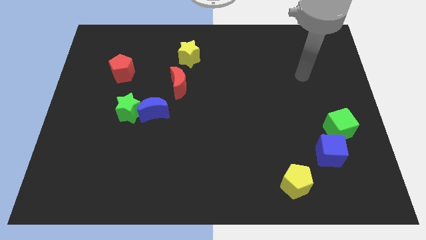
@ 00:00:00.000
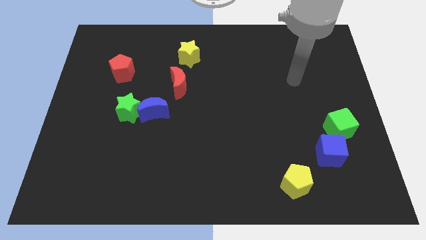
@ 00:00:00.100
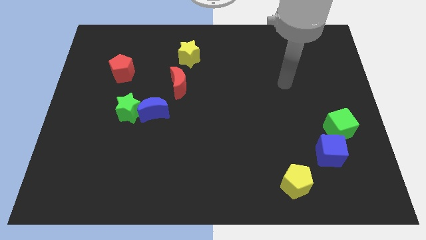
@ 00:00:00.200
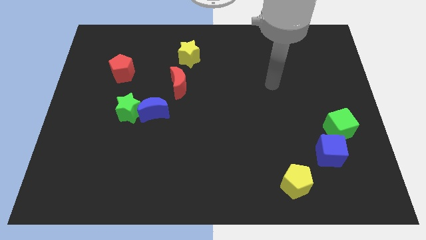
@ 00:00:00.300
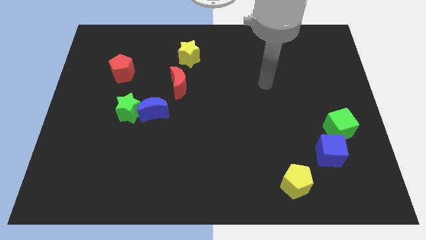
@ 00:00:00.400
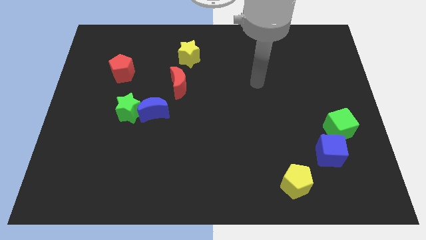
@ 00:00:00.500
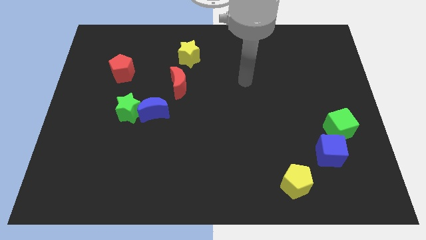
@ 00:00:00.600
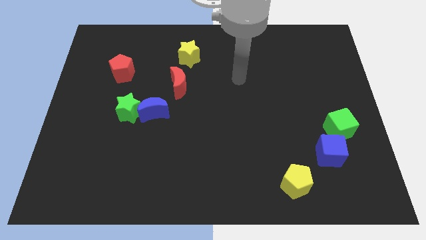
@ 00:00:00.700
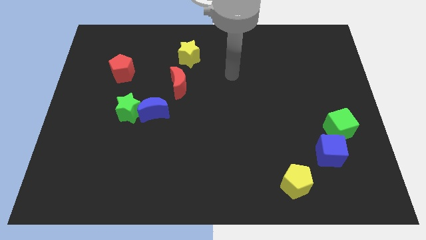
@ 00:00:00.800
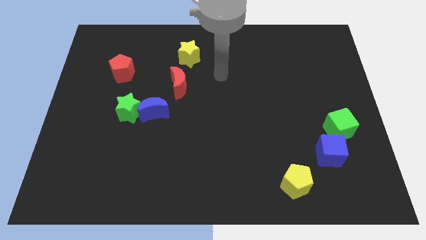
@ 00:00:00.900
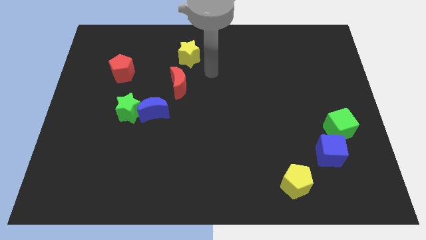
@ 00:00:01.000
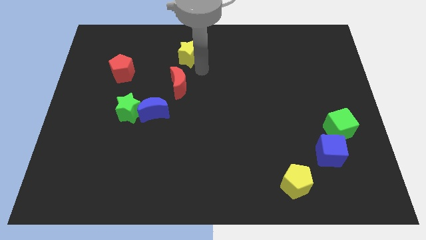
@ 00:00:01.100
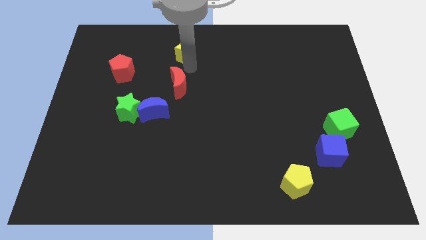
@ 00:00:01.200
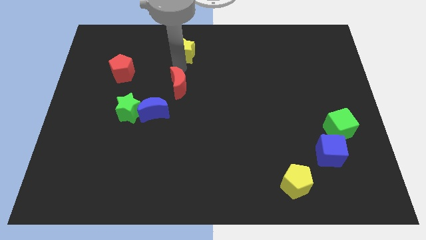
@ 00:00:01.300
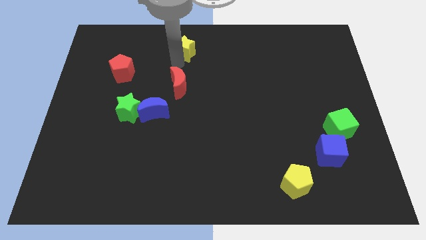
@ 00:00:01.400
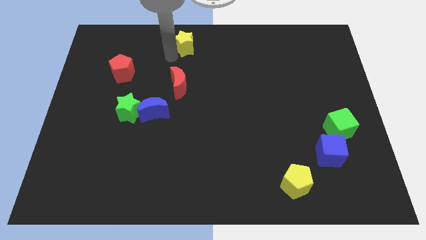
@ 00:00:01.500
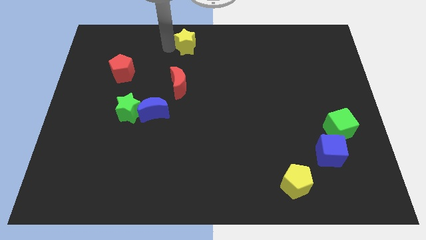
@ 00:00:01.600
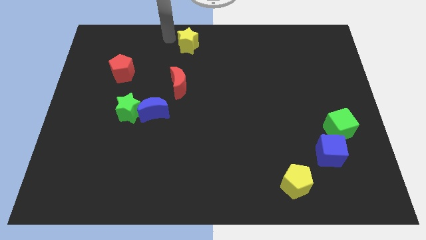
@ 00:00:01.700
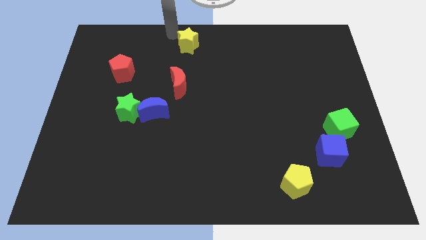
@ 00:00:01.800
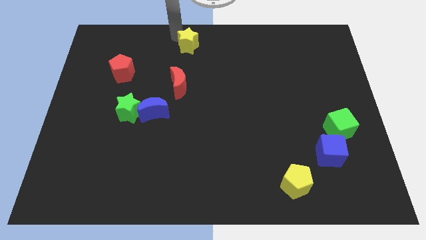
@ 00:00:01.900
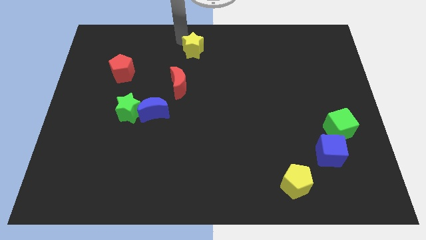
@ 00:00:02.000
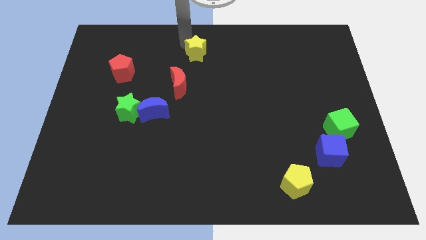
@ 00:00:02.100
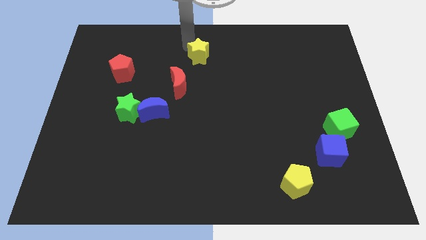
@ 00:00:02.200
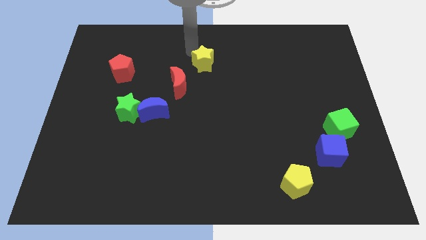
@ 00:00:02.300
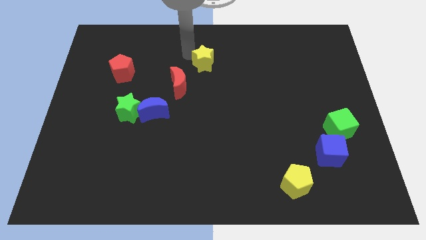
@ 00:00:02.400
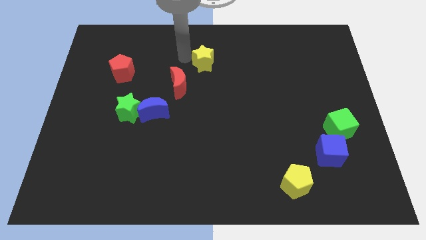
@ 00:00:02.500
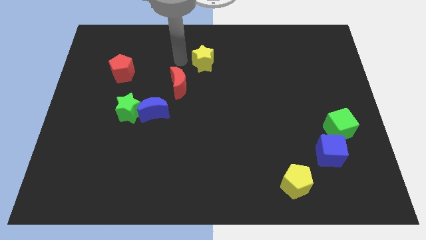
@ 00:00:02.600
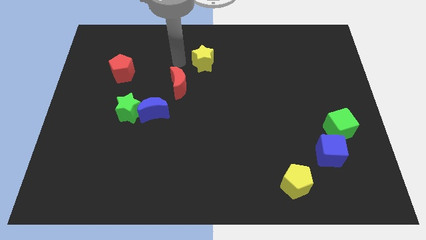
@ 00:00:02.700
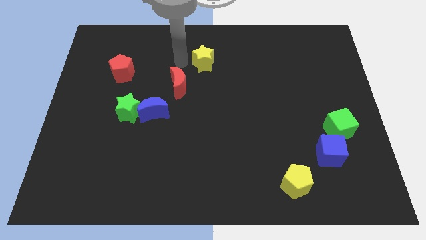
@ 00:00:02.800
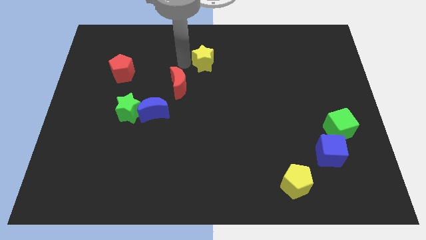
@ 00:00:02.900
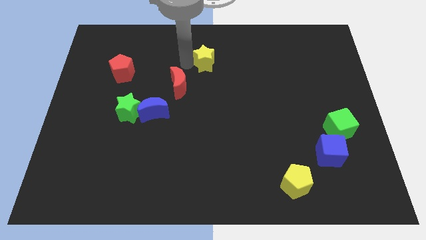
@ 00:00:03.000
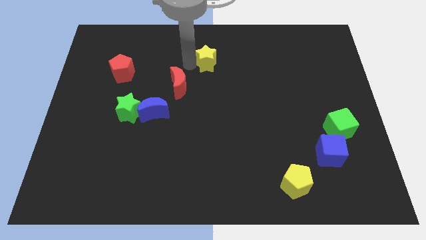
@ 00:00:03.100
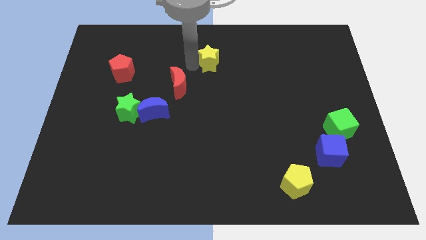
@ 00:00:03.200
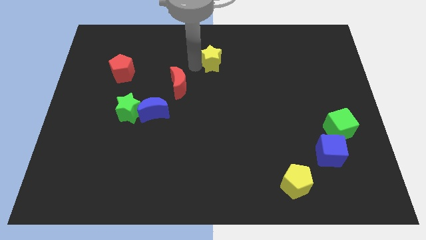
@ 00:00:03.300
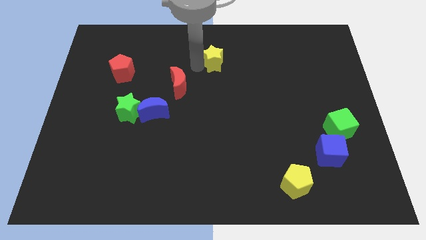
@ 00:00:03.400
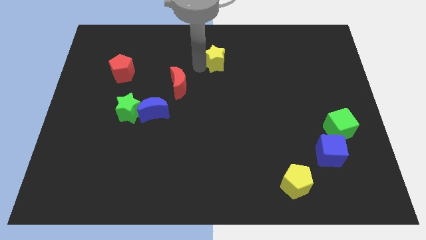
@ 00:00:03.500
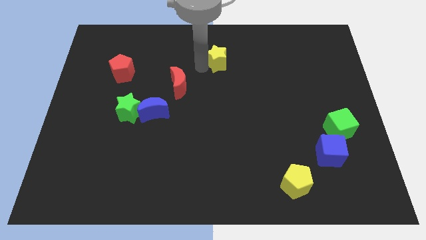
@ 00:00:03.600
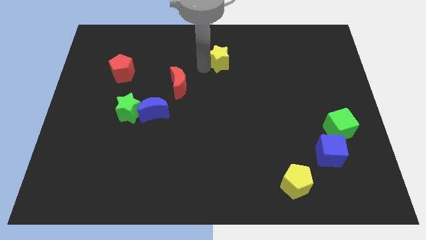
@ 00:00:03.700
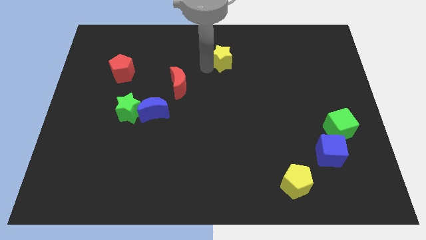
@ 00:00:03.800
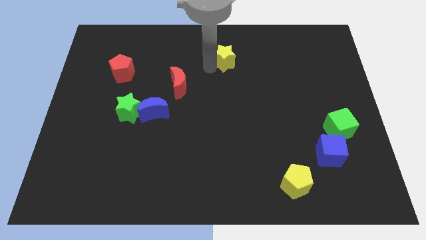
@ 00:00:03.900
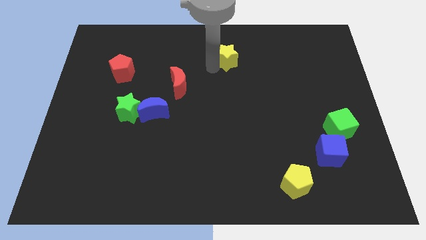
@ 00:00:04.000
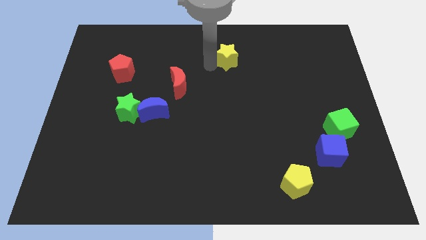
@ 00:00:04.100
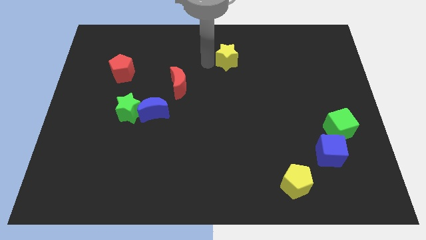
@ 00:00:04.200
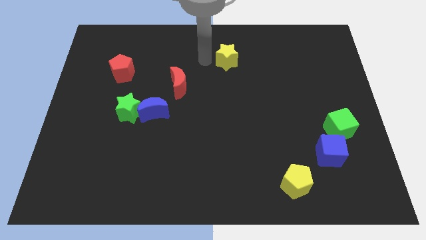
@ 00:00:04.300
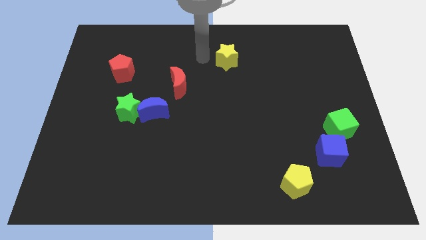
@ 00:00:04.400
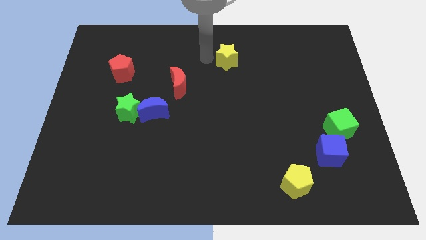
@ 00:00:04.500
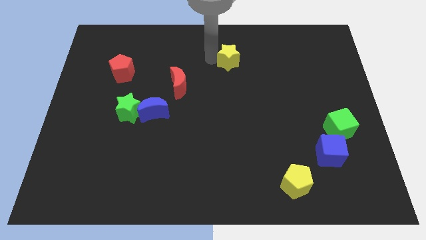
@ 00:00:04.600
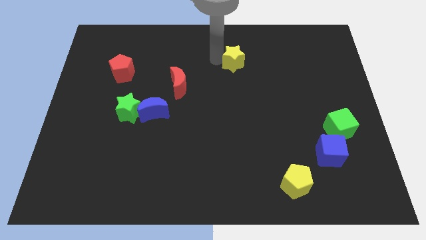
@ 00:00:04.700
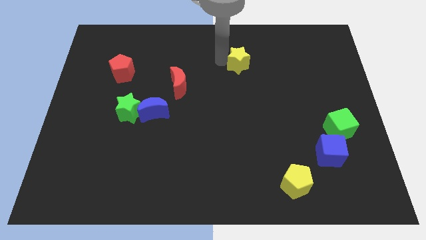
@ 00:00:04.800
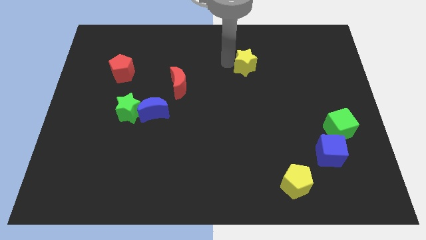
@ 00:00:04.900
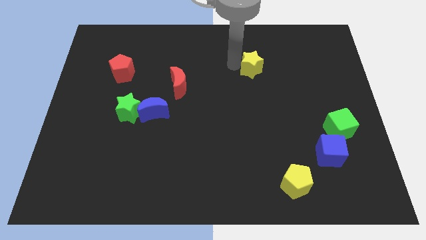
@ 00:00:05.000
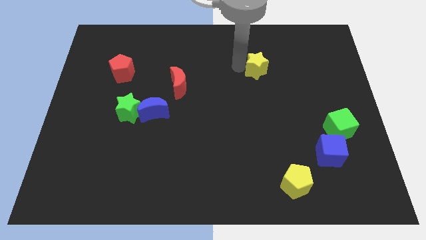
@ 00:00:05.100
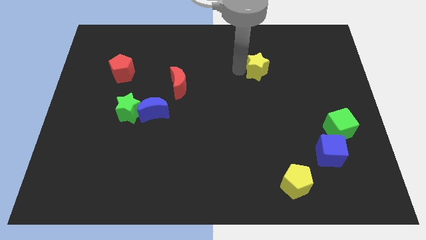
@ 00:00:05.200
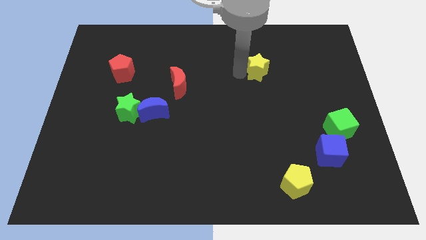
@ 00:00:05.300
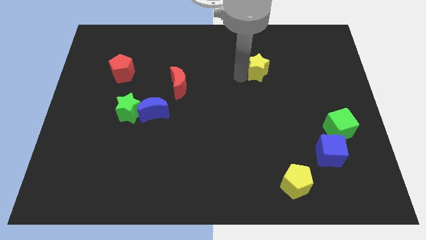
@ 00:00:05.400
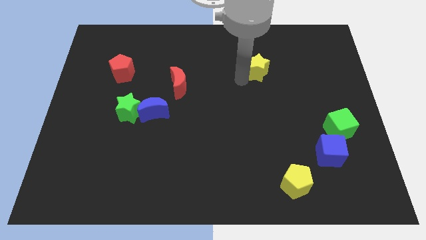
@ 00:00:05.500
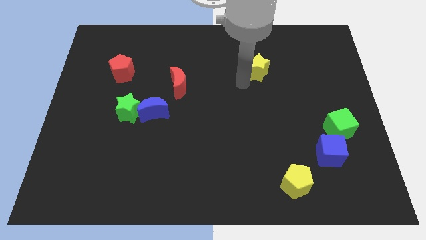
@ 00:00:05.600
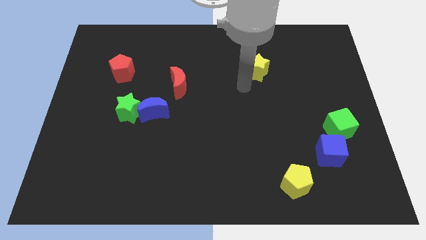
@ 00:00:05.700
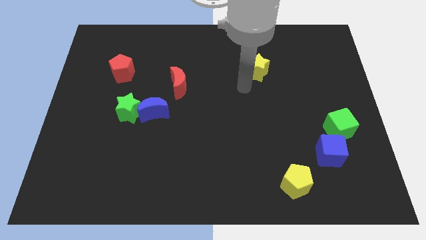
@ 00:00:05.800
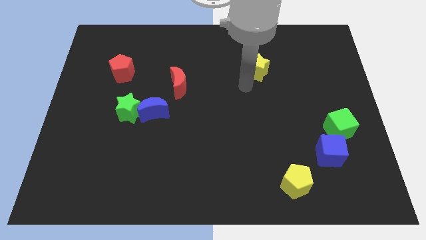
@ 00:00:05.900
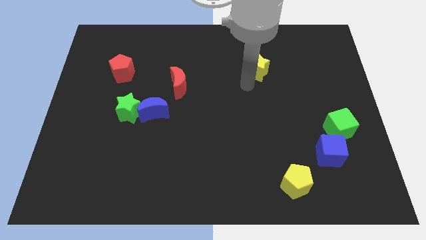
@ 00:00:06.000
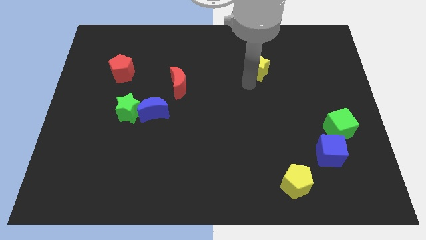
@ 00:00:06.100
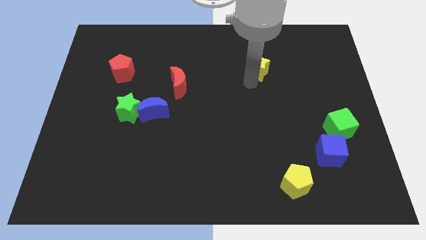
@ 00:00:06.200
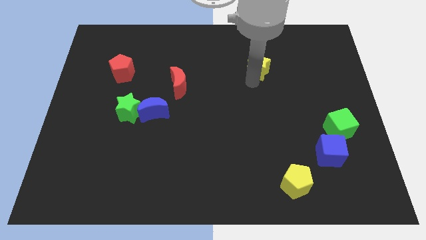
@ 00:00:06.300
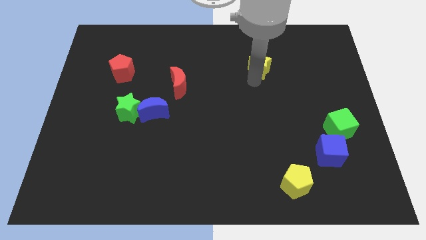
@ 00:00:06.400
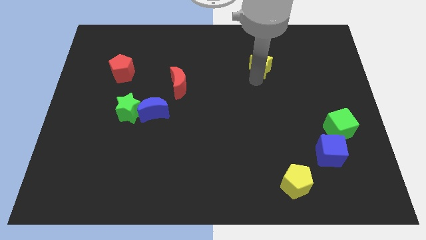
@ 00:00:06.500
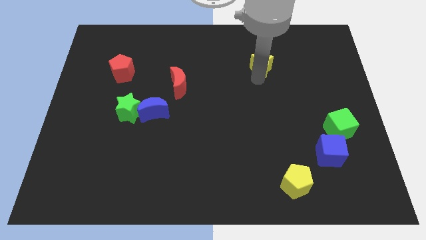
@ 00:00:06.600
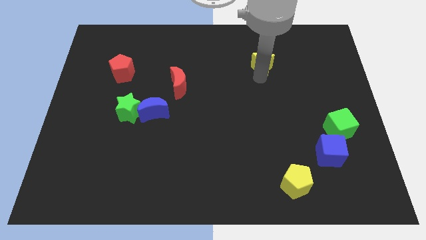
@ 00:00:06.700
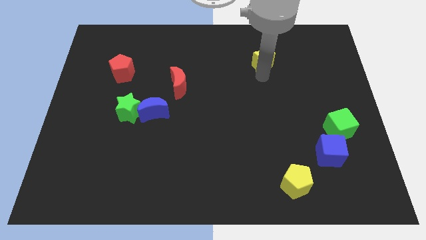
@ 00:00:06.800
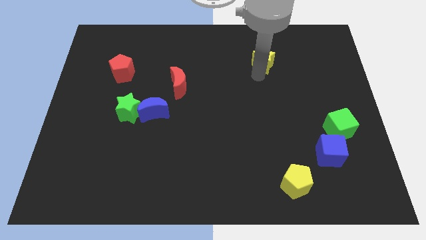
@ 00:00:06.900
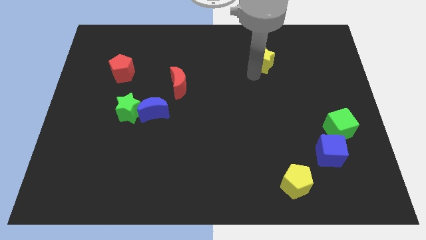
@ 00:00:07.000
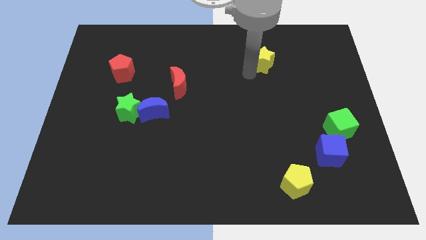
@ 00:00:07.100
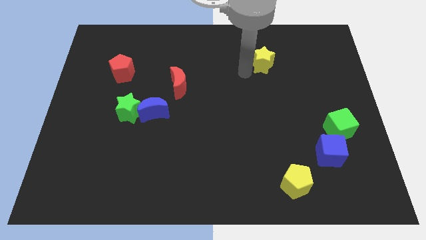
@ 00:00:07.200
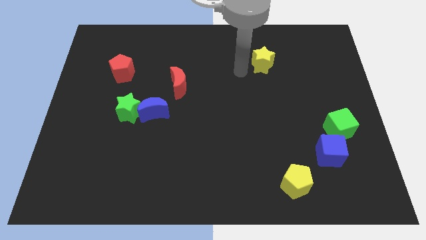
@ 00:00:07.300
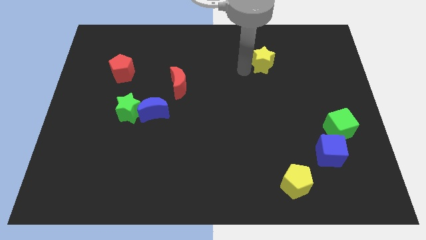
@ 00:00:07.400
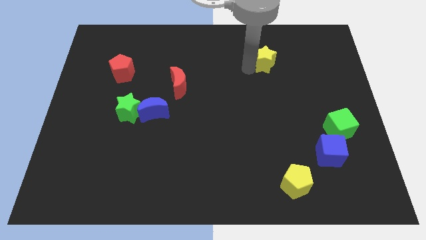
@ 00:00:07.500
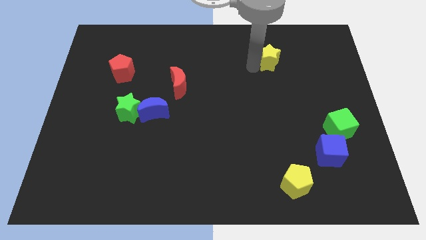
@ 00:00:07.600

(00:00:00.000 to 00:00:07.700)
move the yellow star right
